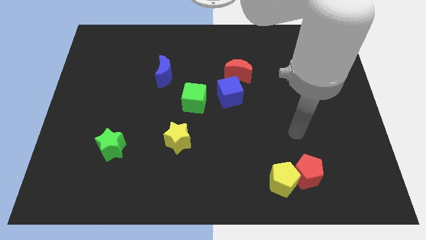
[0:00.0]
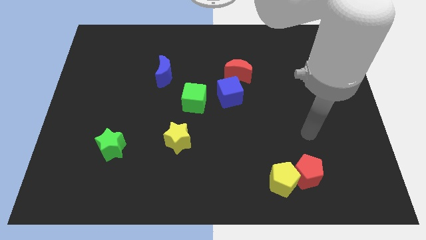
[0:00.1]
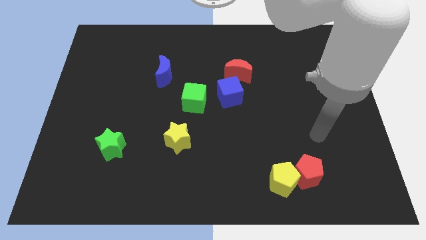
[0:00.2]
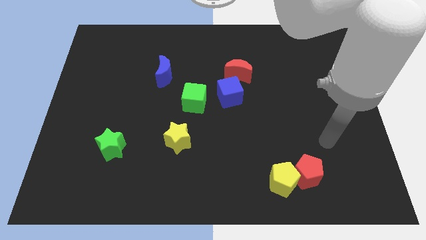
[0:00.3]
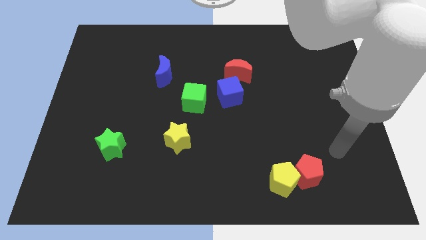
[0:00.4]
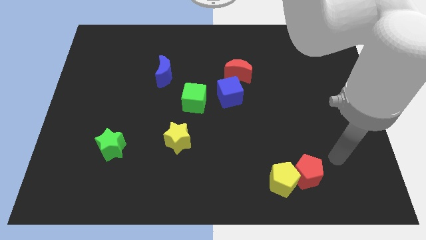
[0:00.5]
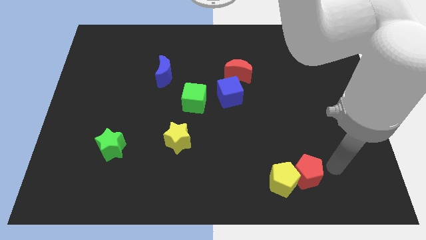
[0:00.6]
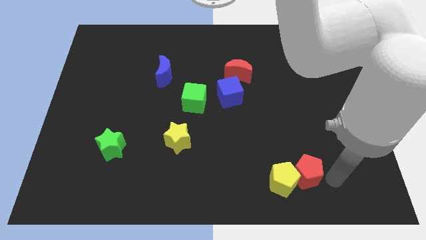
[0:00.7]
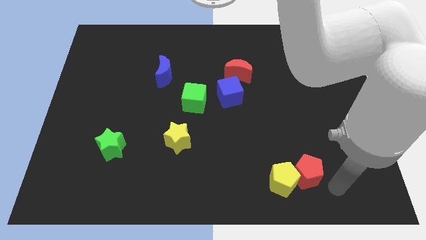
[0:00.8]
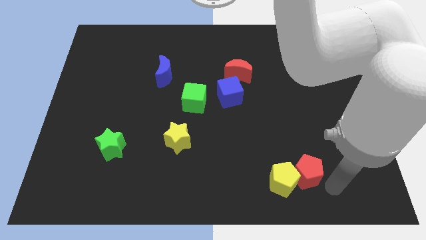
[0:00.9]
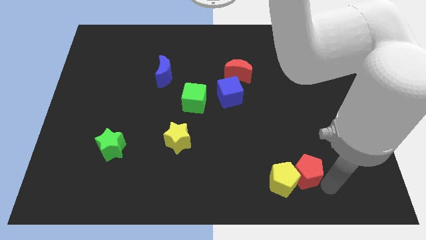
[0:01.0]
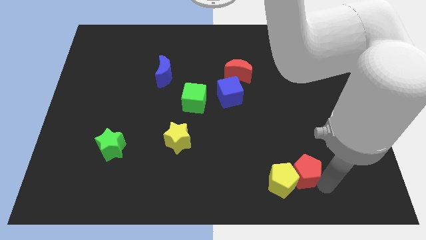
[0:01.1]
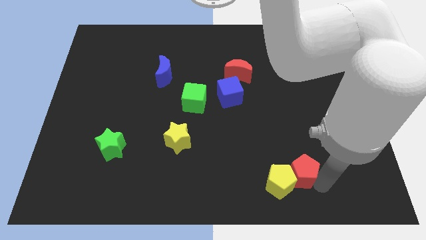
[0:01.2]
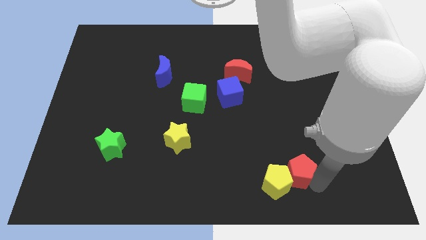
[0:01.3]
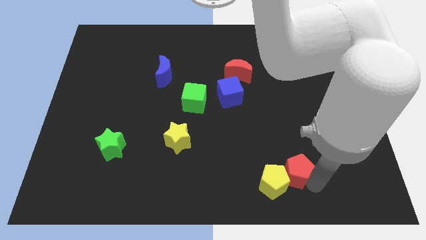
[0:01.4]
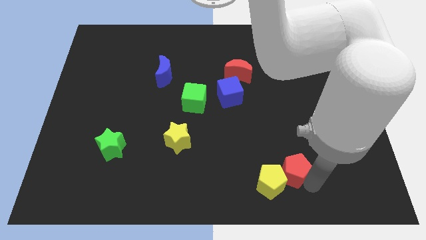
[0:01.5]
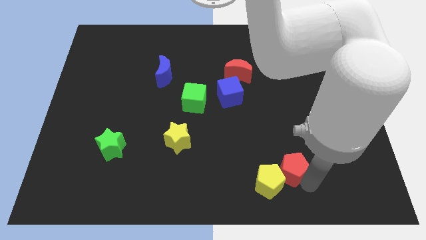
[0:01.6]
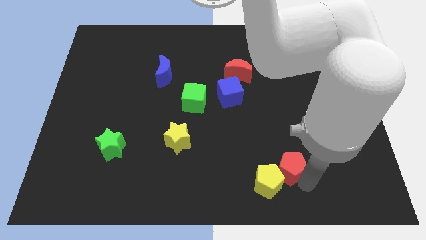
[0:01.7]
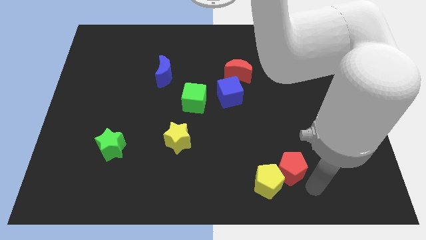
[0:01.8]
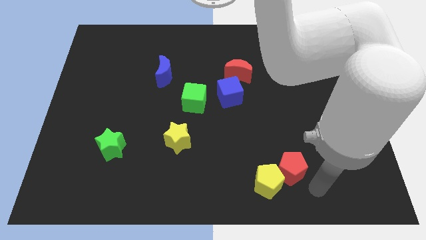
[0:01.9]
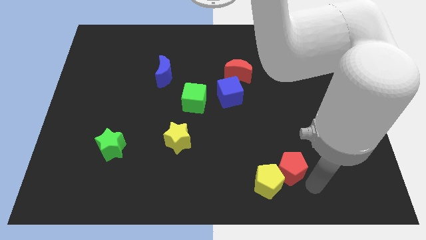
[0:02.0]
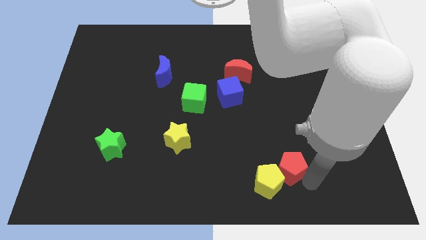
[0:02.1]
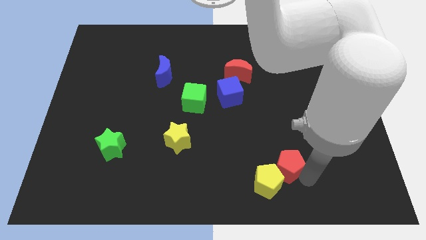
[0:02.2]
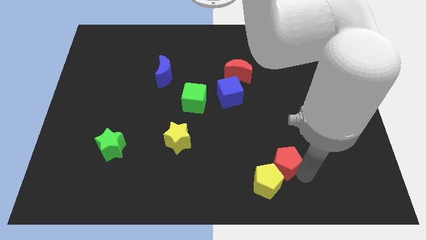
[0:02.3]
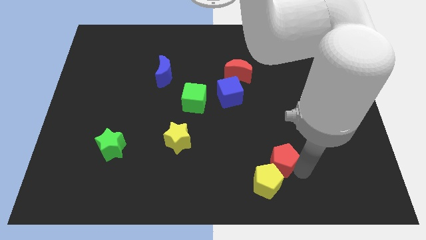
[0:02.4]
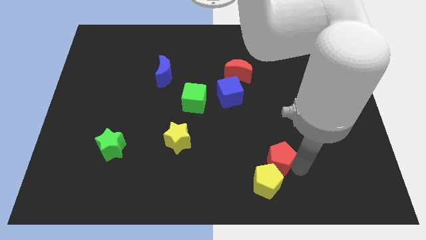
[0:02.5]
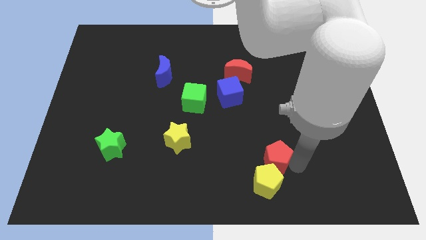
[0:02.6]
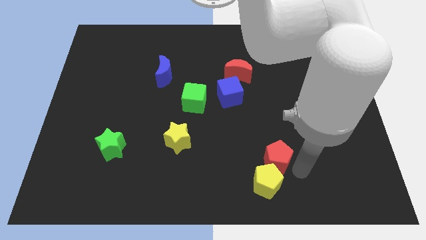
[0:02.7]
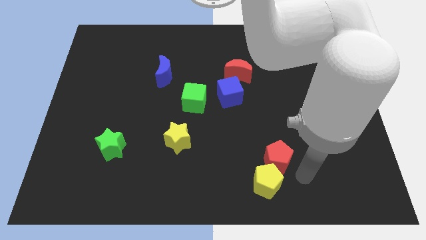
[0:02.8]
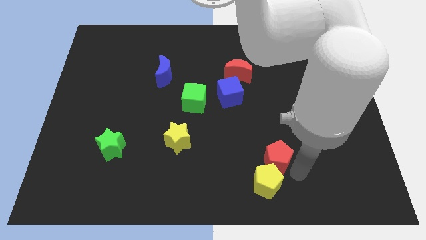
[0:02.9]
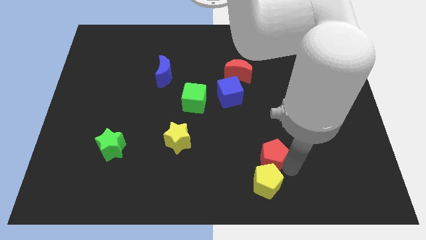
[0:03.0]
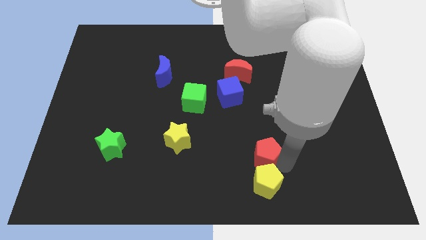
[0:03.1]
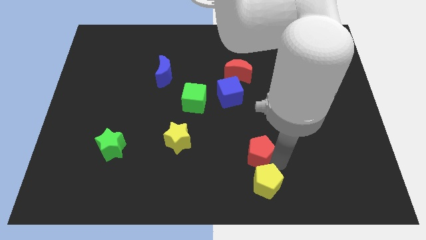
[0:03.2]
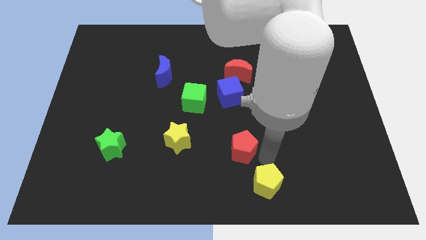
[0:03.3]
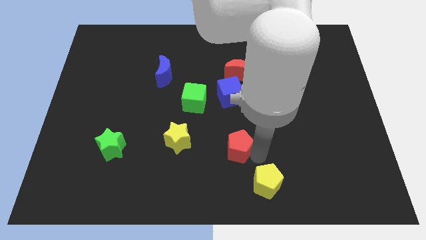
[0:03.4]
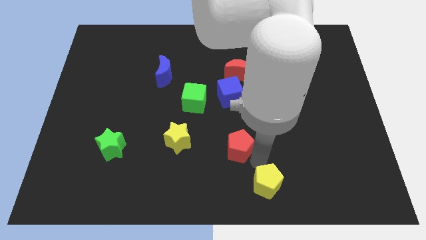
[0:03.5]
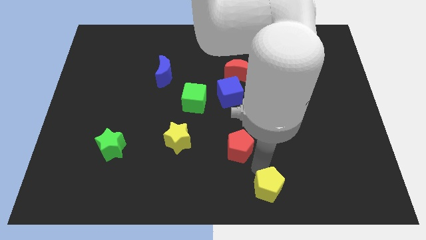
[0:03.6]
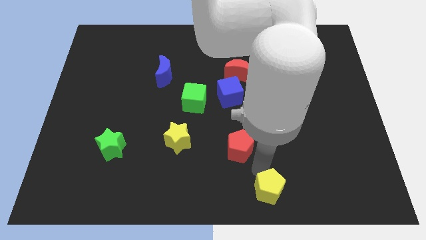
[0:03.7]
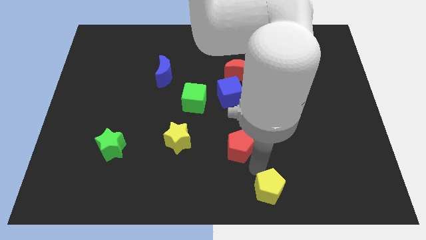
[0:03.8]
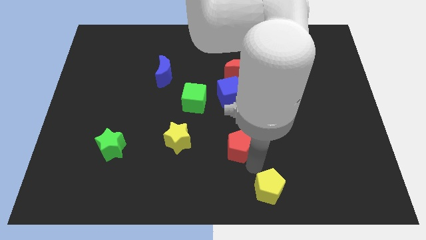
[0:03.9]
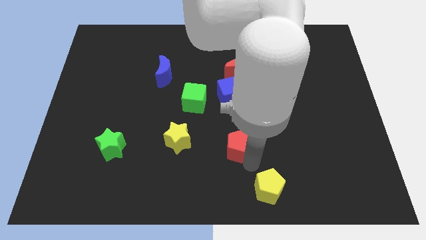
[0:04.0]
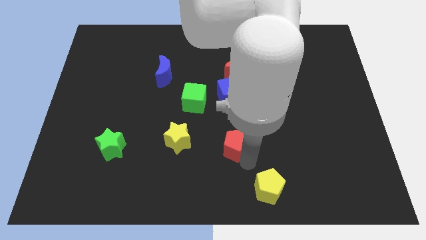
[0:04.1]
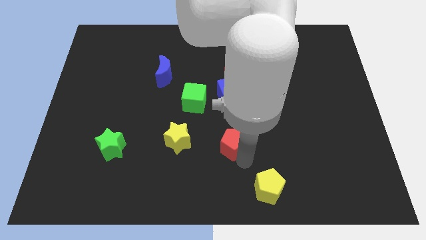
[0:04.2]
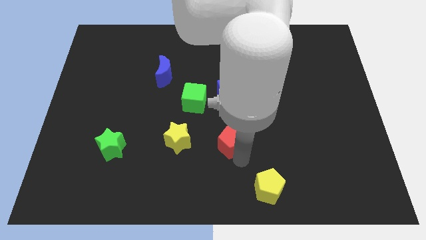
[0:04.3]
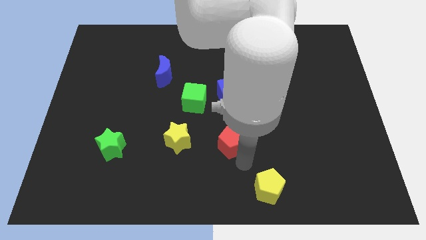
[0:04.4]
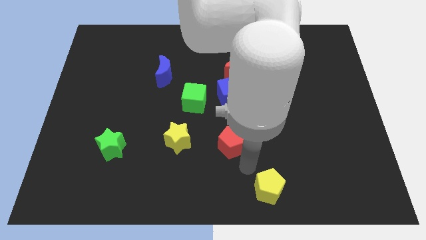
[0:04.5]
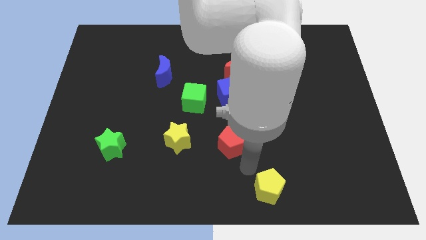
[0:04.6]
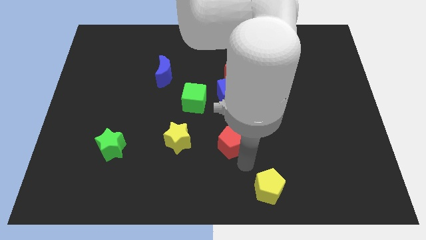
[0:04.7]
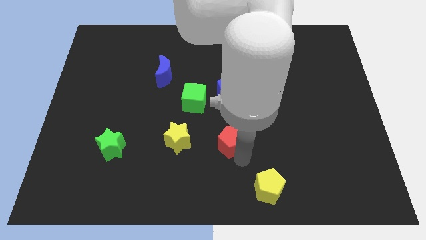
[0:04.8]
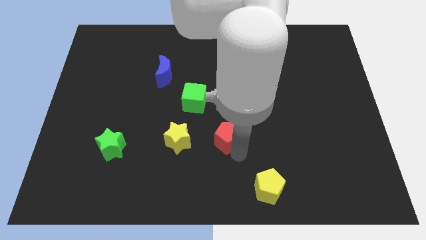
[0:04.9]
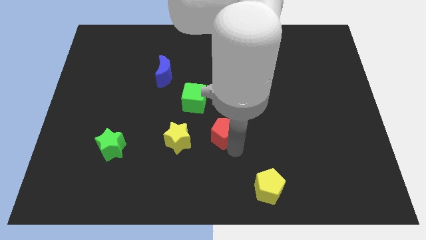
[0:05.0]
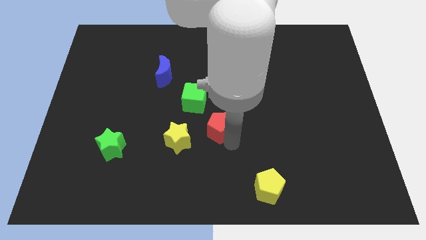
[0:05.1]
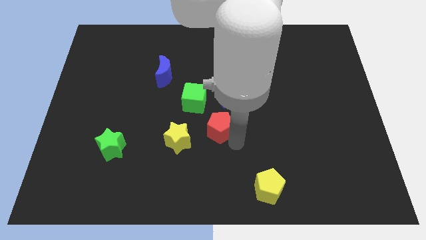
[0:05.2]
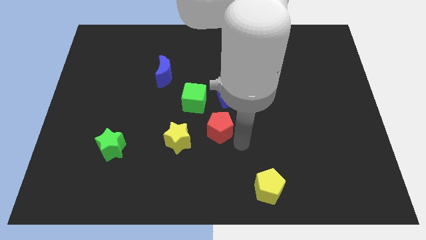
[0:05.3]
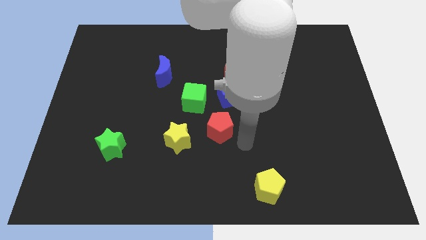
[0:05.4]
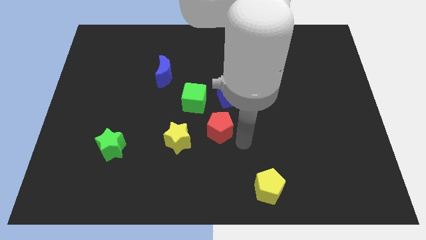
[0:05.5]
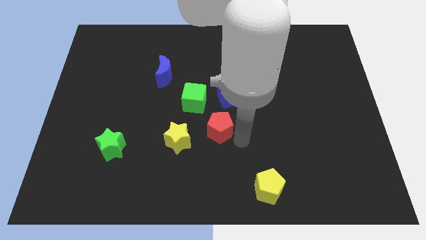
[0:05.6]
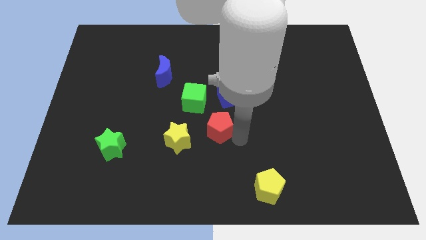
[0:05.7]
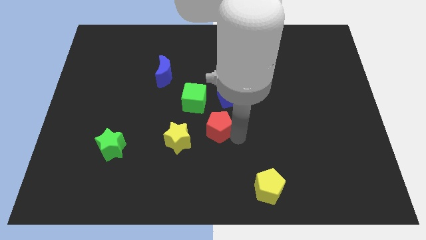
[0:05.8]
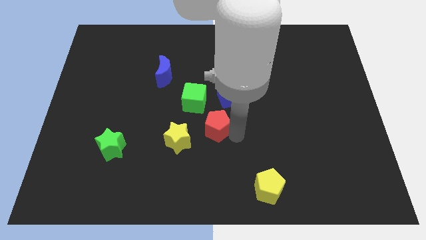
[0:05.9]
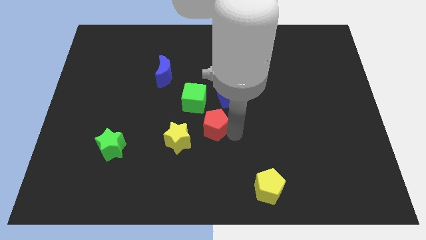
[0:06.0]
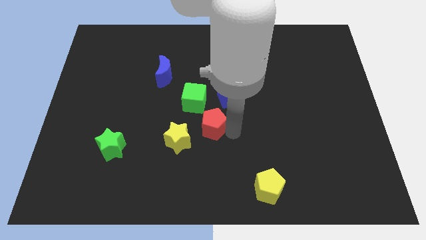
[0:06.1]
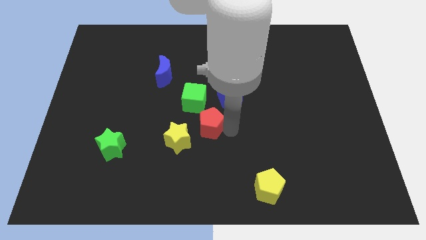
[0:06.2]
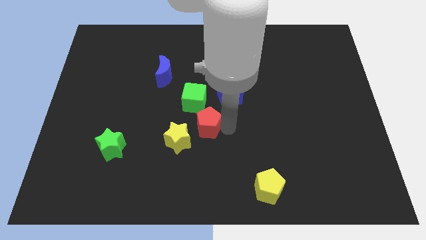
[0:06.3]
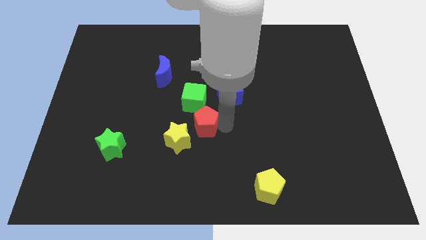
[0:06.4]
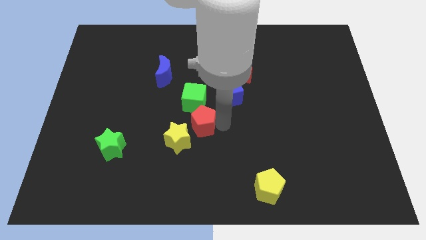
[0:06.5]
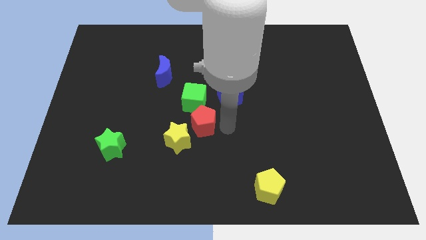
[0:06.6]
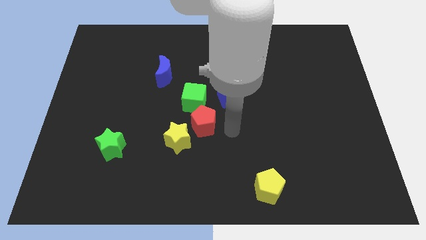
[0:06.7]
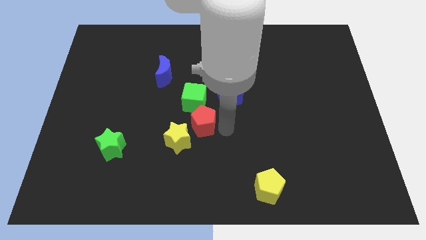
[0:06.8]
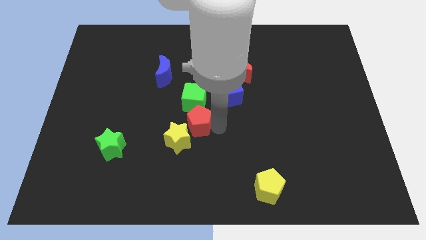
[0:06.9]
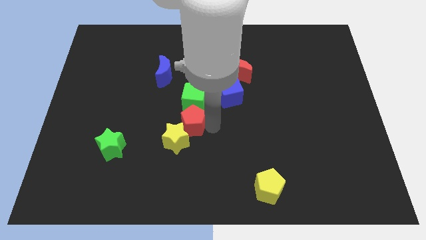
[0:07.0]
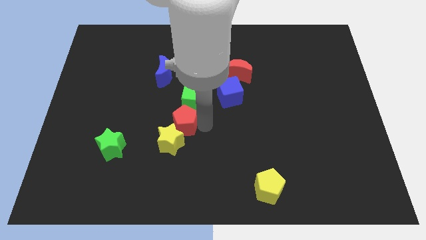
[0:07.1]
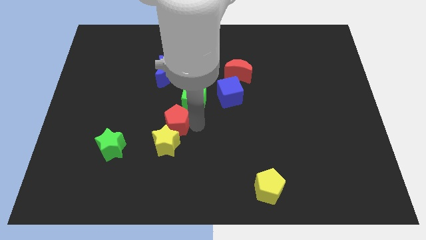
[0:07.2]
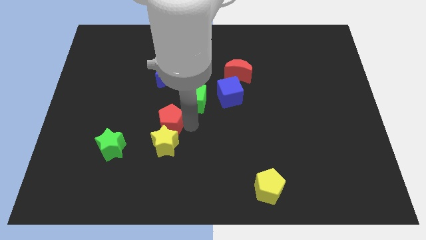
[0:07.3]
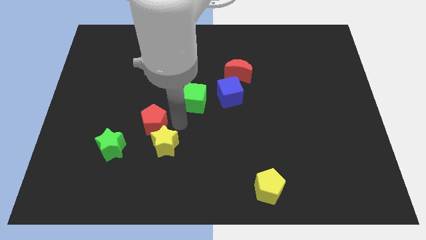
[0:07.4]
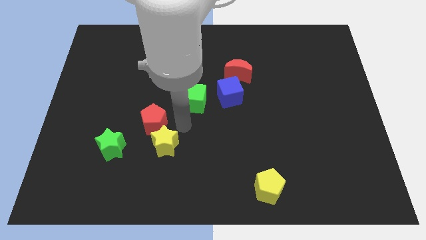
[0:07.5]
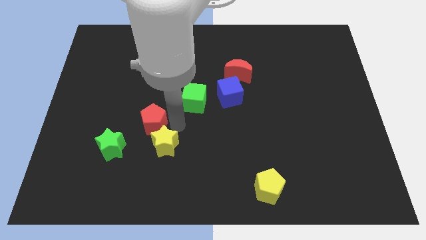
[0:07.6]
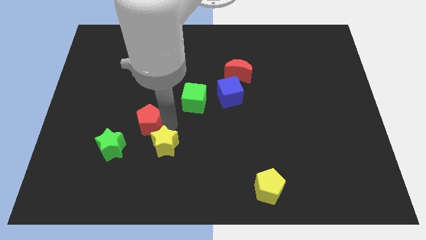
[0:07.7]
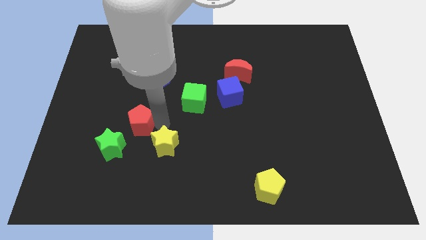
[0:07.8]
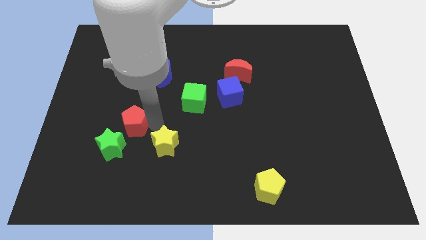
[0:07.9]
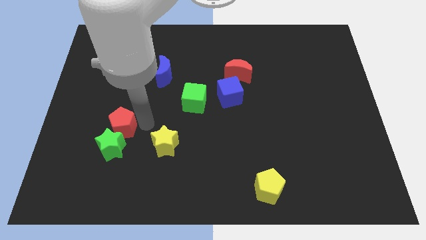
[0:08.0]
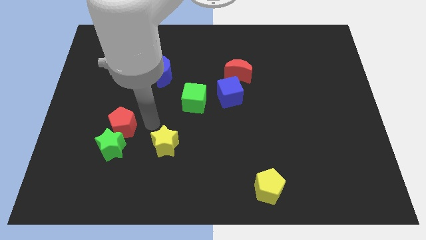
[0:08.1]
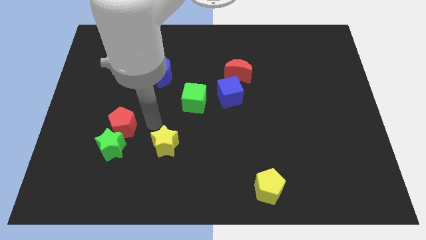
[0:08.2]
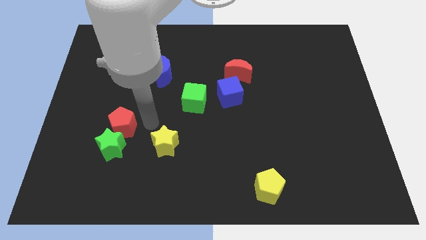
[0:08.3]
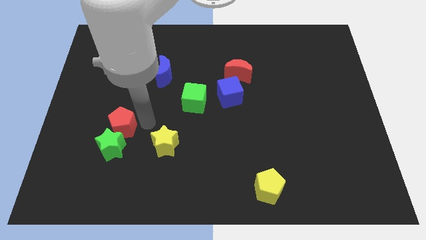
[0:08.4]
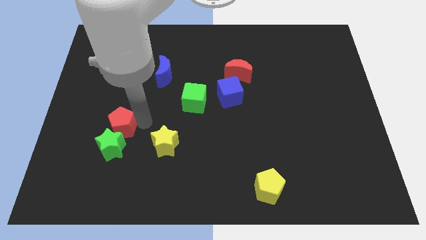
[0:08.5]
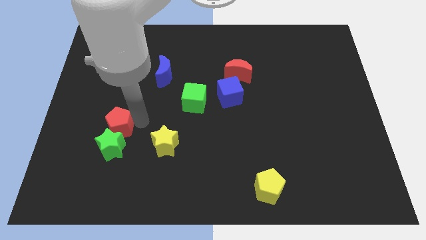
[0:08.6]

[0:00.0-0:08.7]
move the red pentagon to the top left side of the green star
